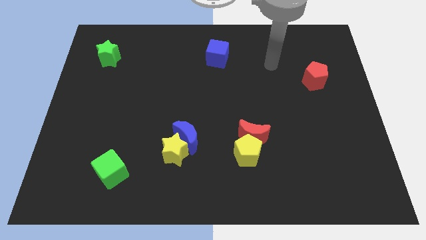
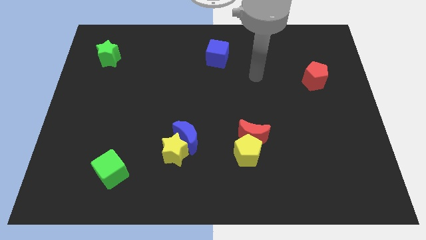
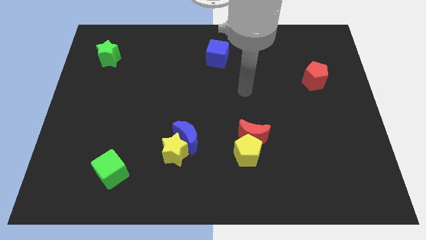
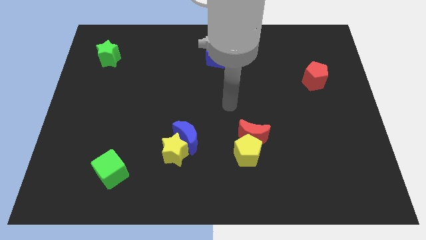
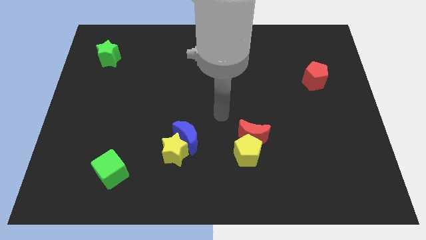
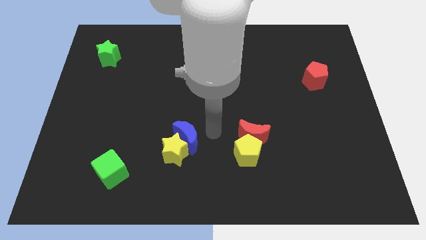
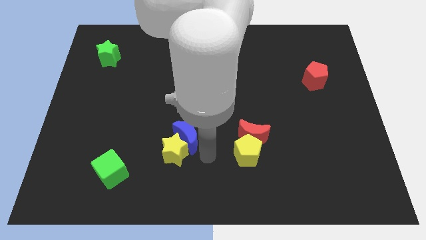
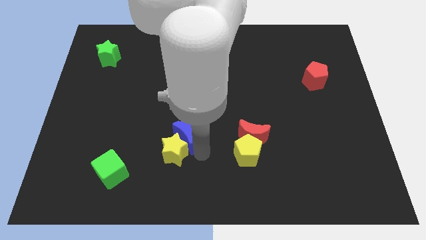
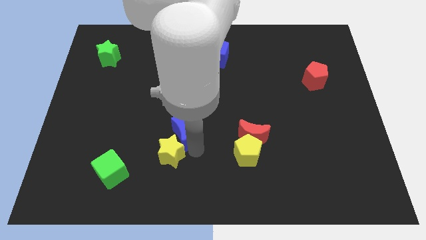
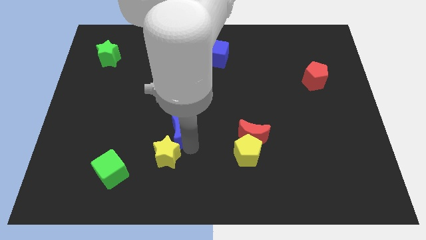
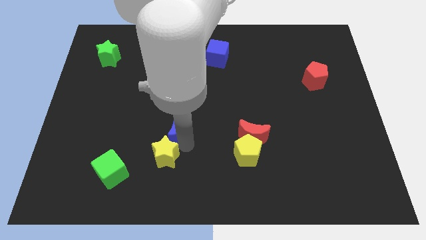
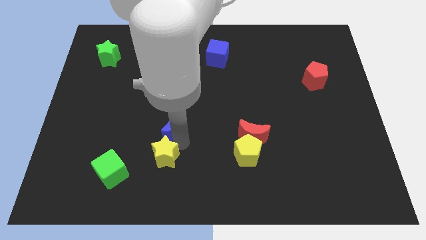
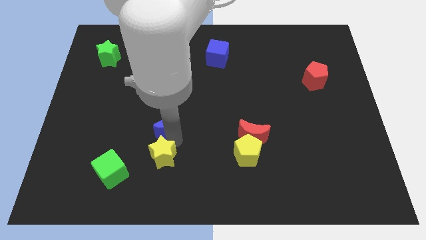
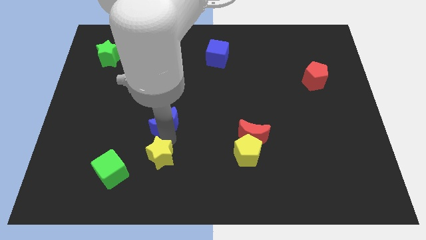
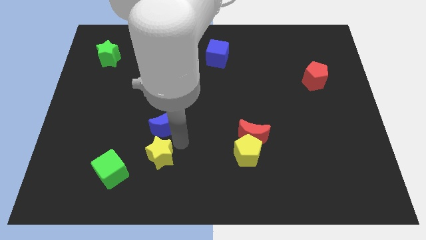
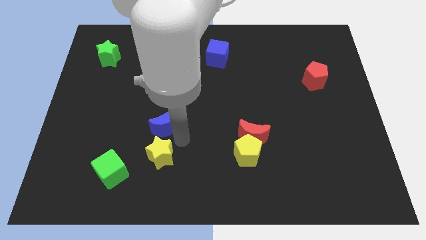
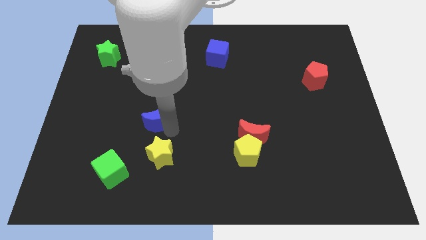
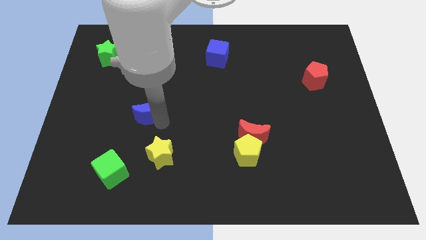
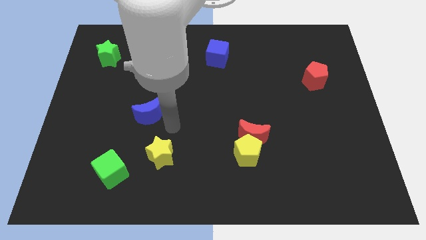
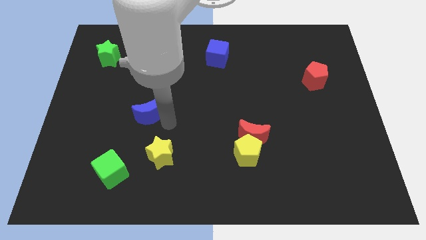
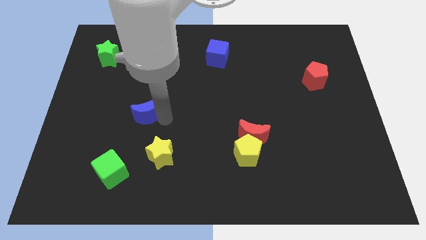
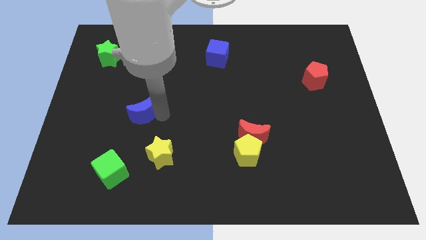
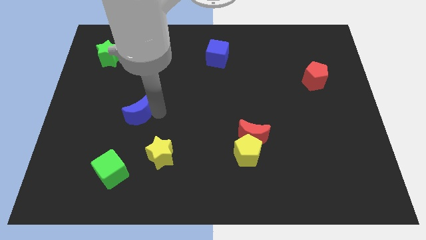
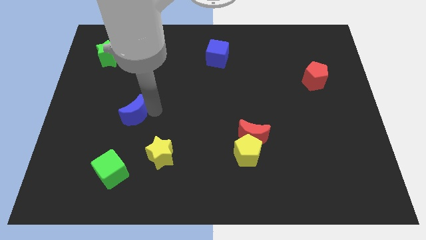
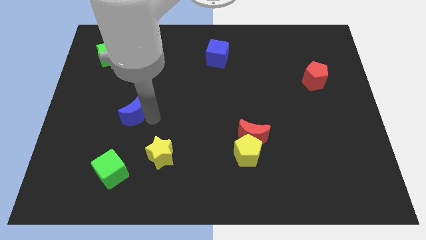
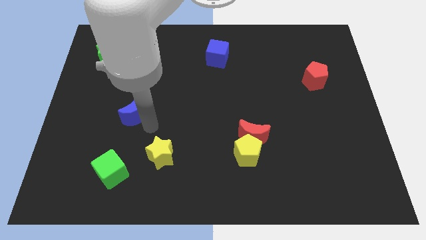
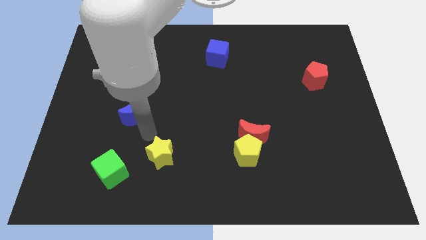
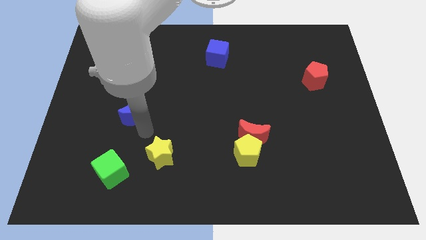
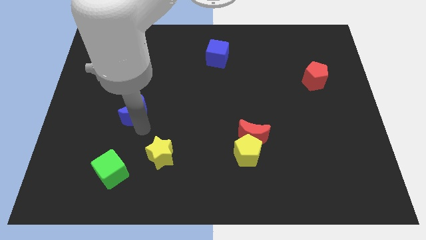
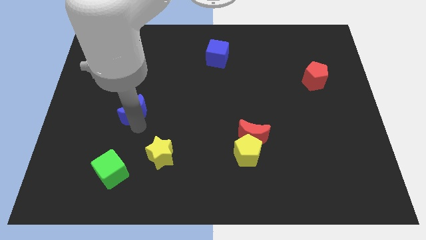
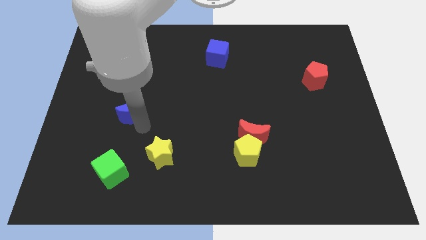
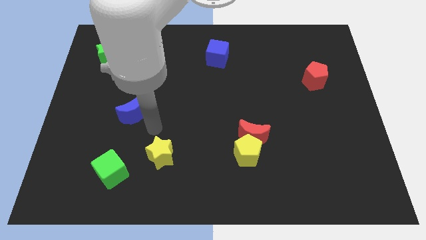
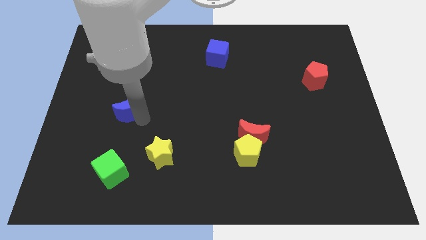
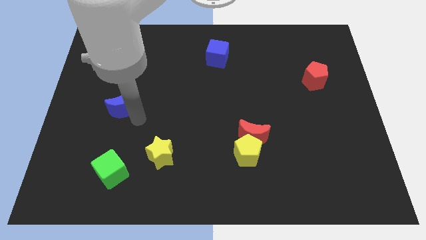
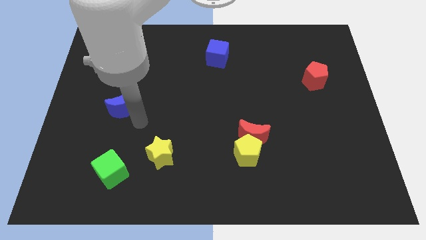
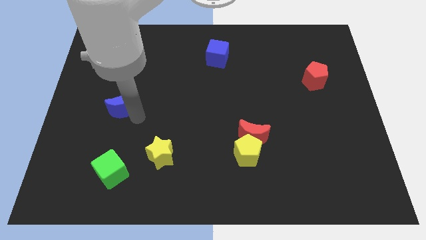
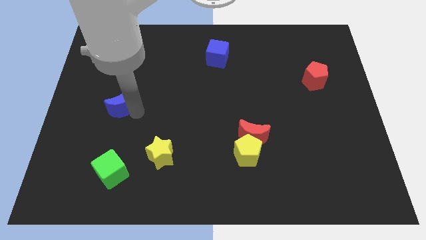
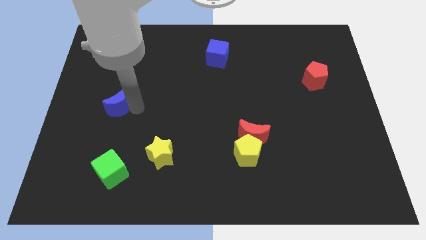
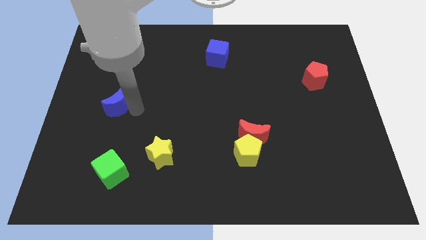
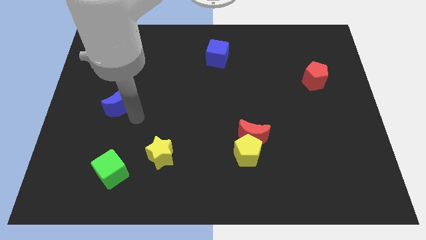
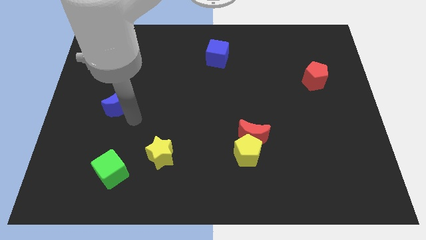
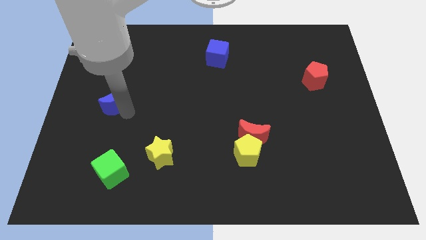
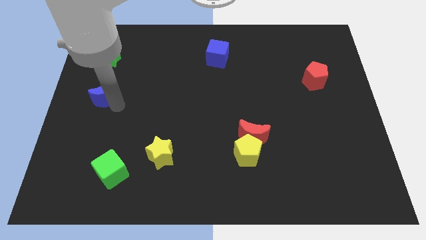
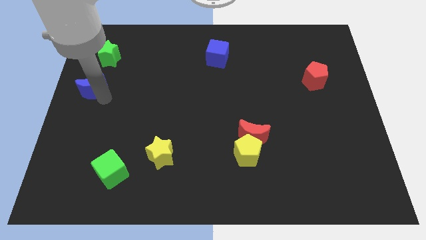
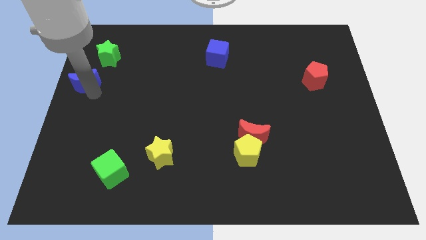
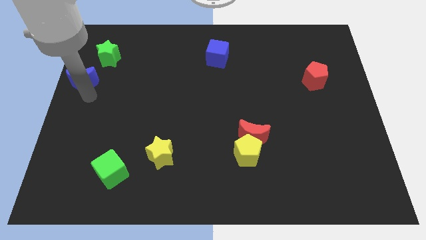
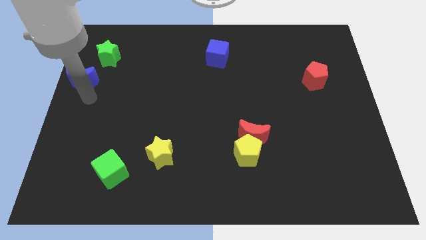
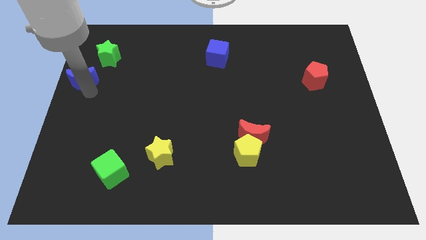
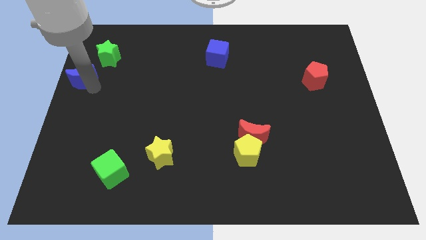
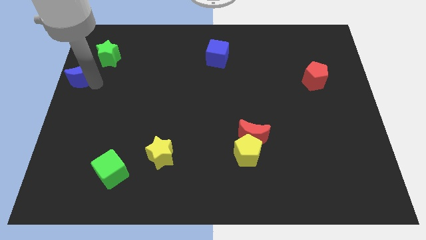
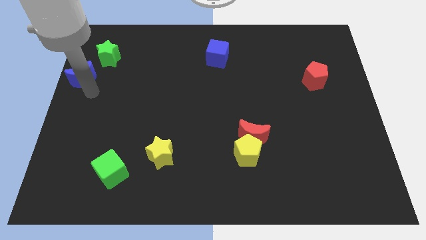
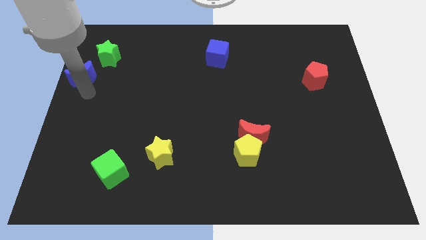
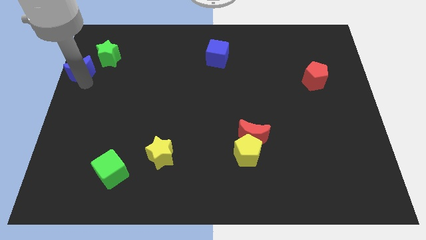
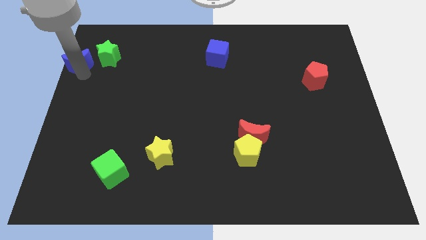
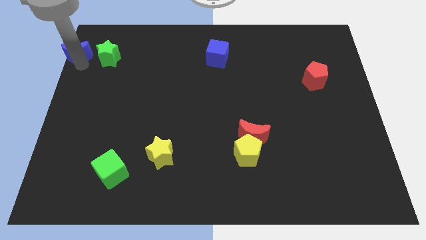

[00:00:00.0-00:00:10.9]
push the blue moon to the upper left corner

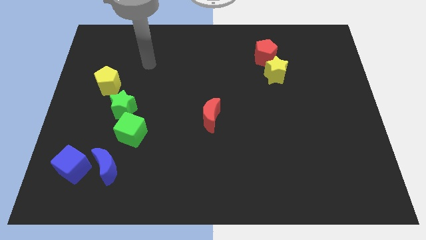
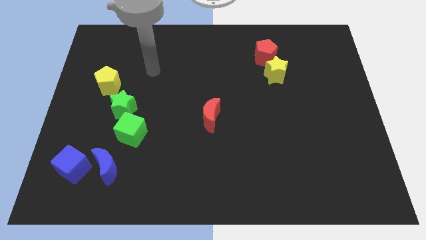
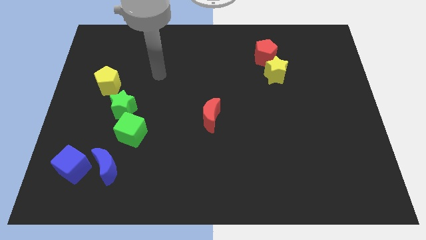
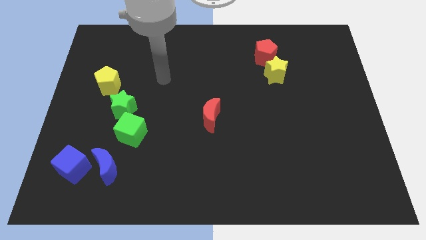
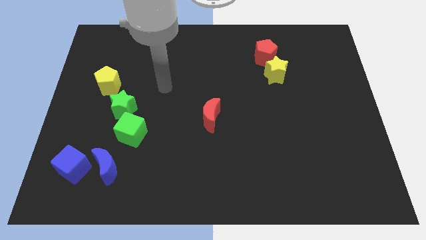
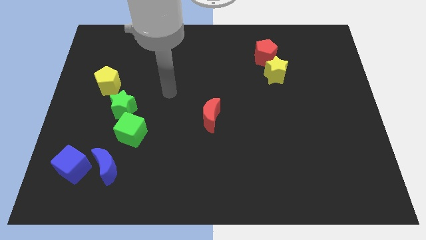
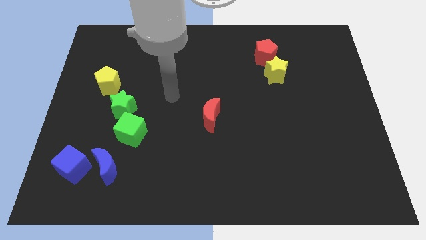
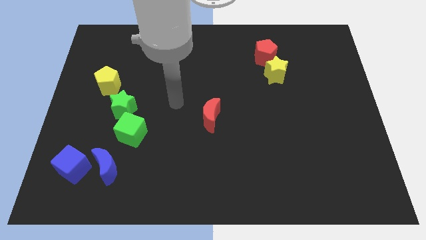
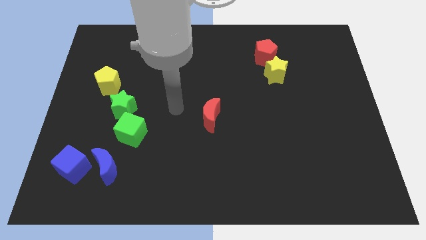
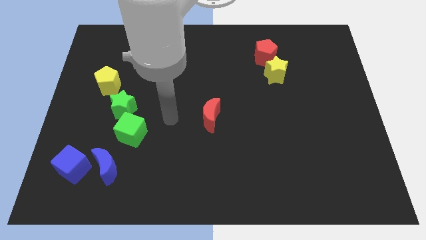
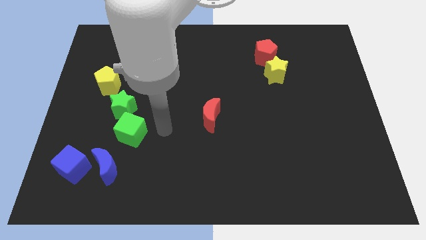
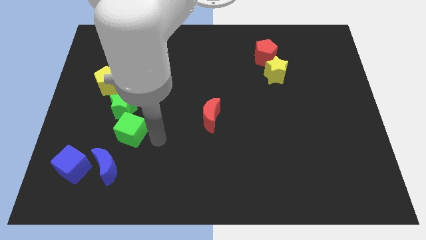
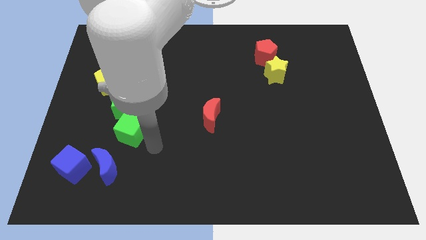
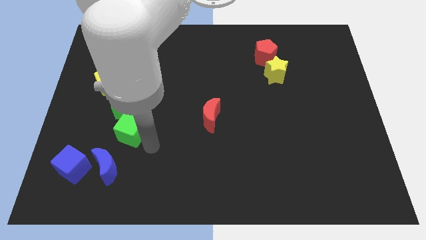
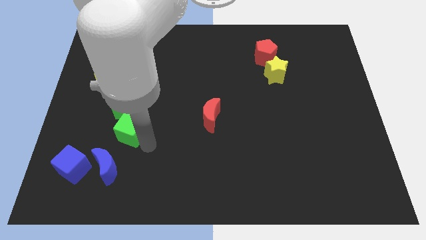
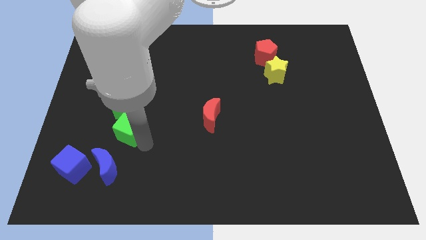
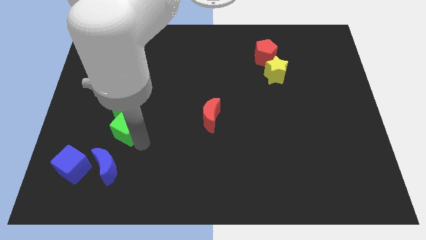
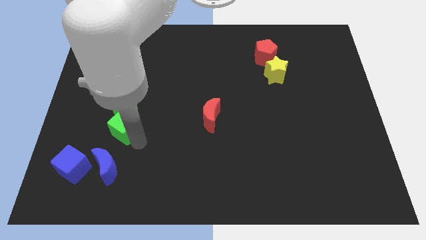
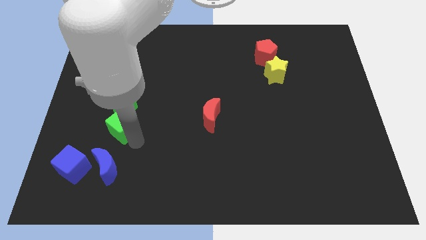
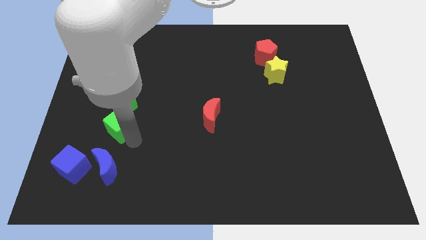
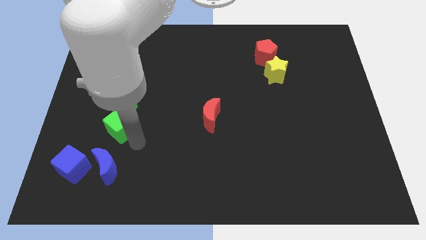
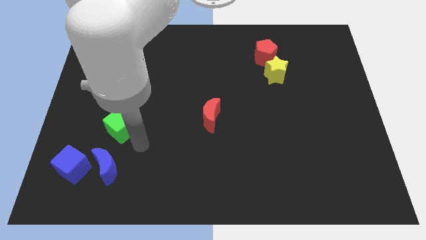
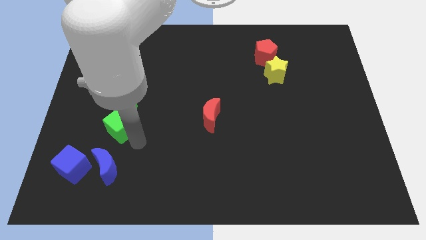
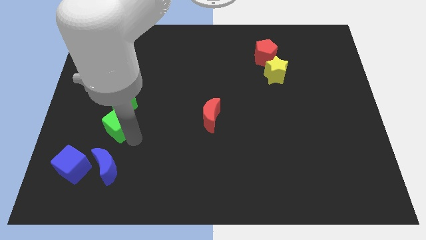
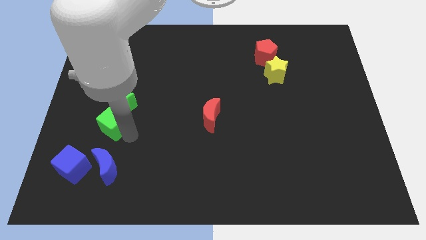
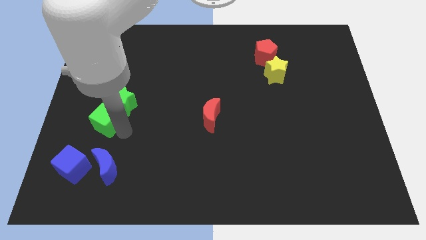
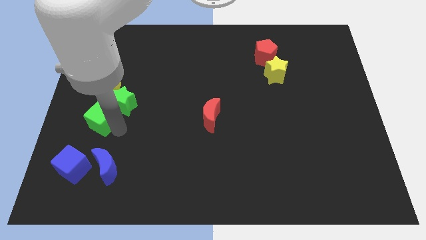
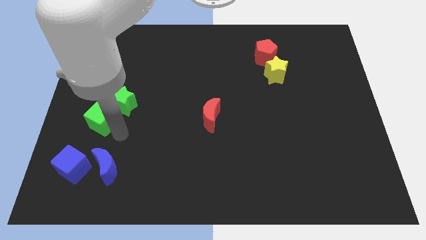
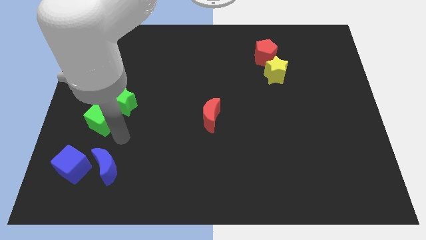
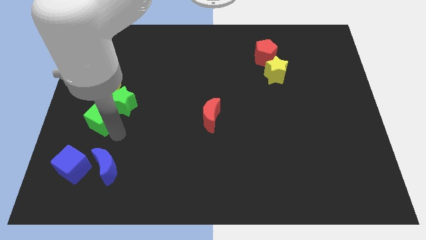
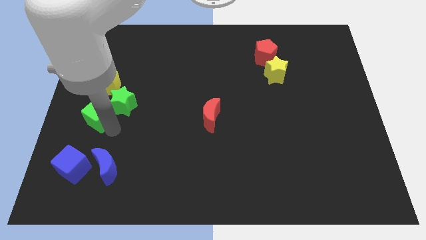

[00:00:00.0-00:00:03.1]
put the green cube to the left side
